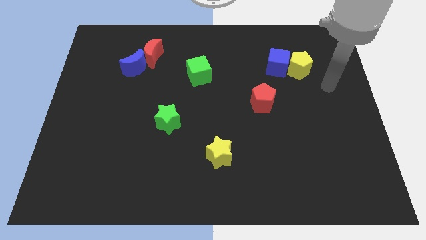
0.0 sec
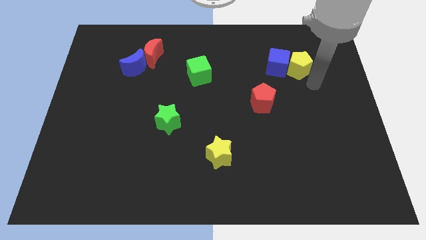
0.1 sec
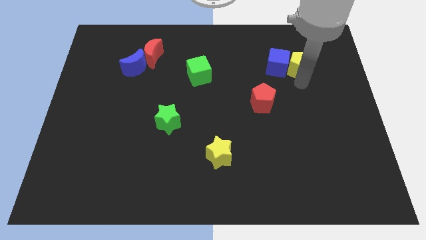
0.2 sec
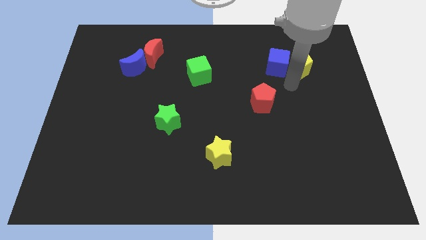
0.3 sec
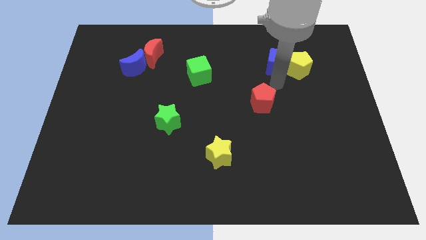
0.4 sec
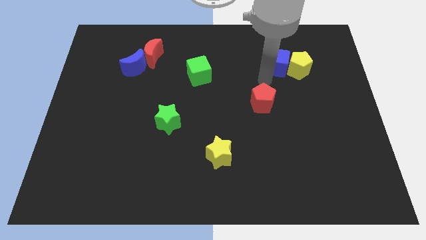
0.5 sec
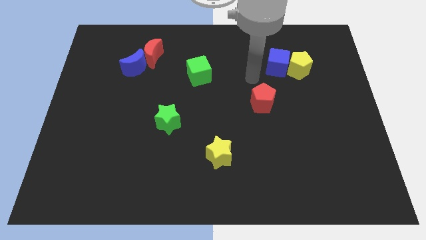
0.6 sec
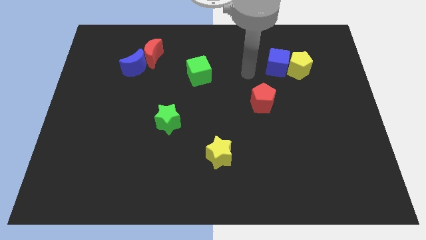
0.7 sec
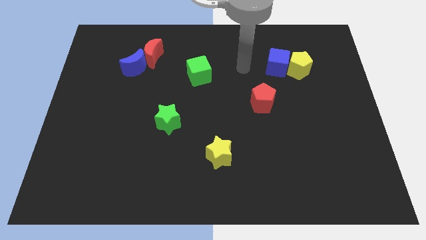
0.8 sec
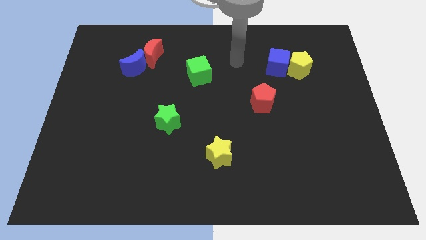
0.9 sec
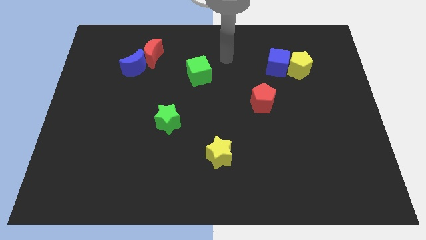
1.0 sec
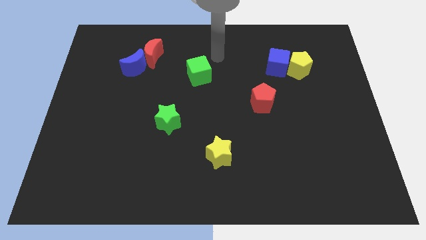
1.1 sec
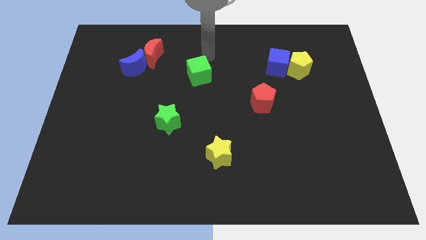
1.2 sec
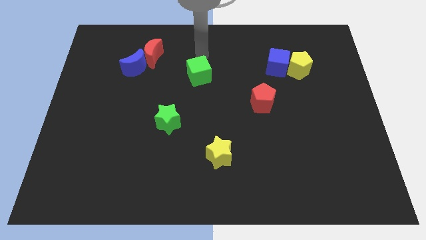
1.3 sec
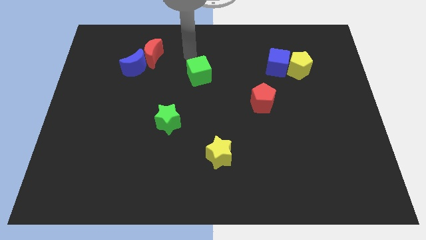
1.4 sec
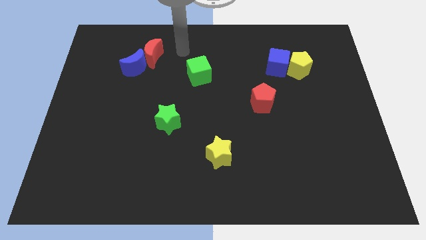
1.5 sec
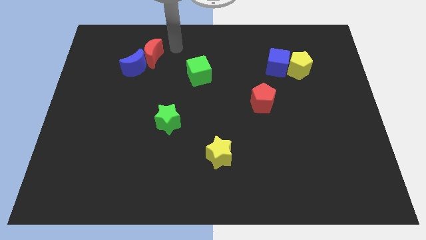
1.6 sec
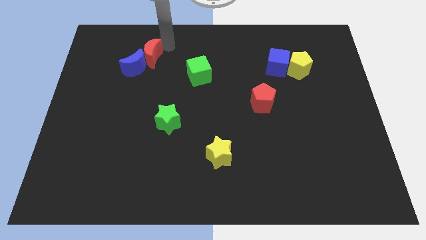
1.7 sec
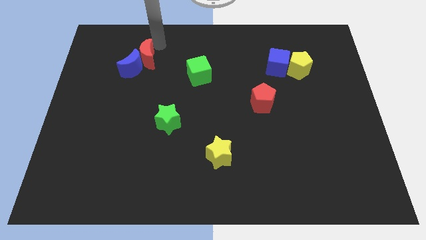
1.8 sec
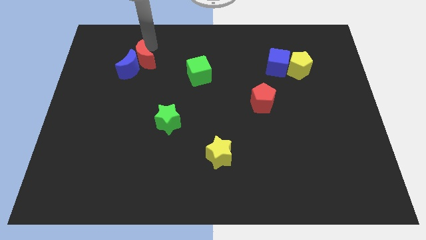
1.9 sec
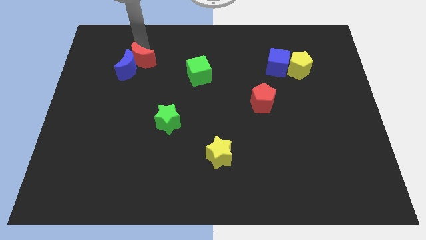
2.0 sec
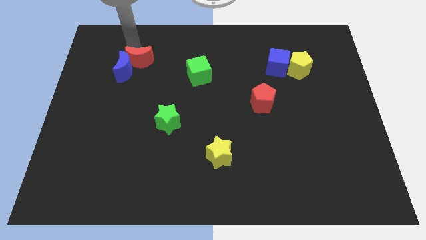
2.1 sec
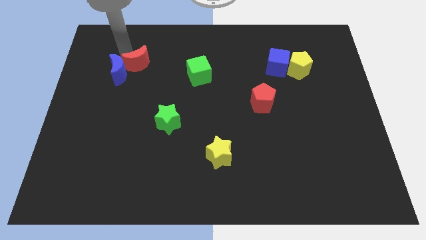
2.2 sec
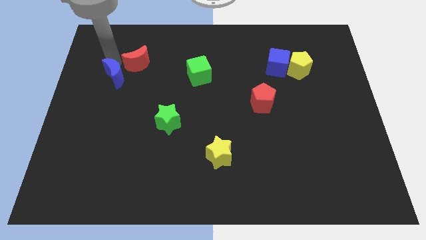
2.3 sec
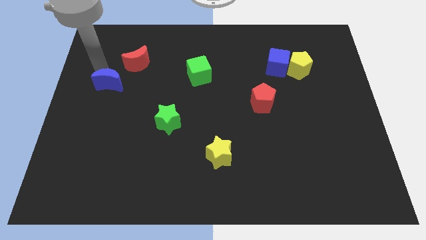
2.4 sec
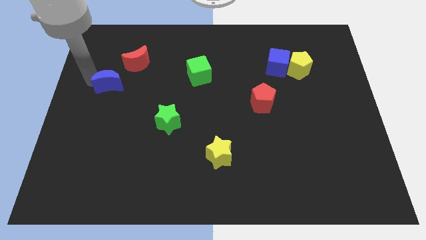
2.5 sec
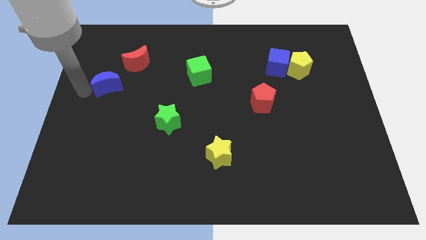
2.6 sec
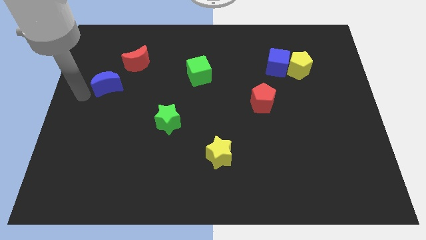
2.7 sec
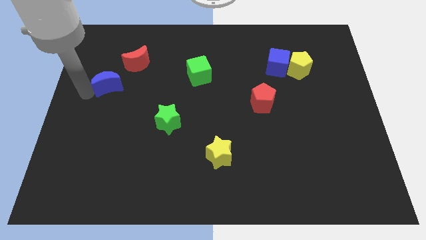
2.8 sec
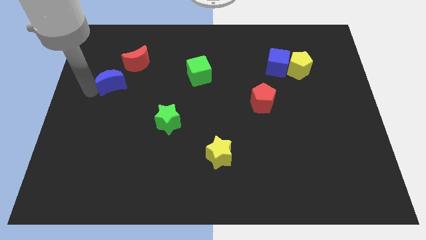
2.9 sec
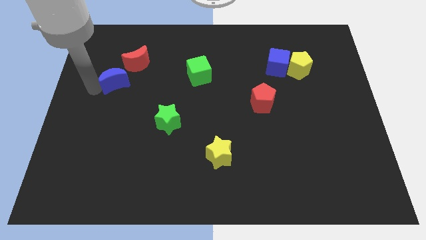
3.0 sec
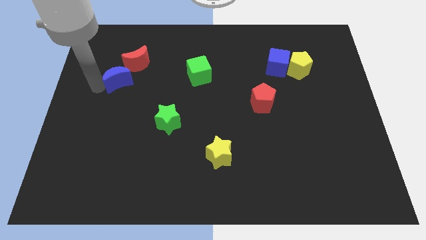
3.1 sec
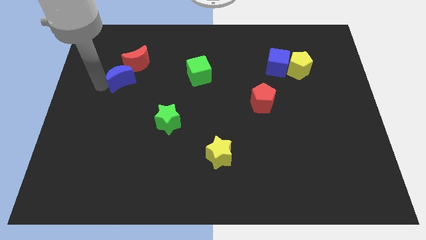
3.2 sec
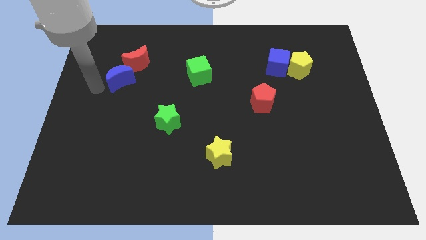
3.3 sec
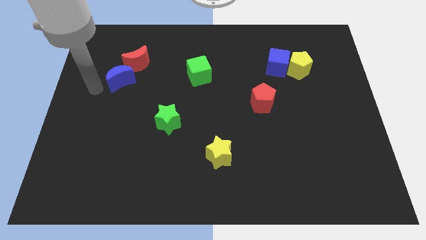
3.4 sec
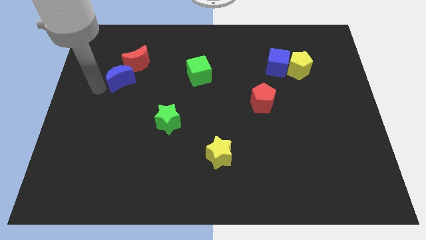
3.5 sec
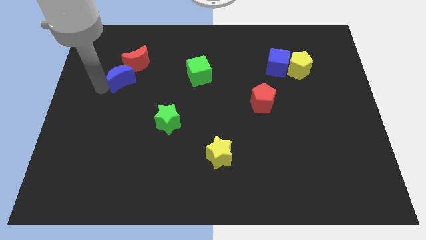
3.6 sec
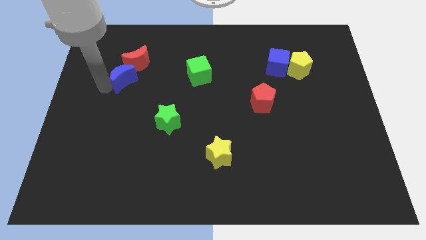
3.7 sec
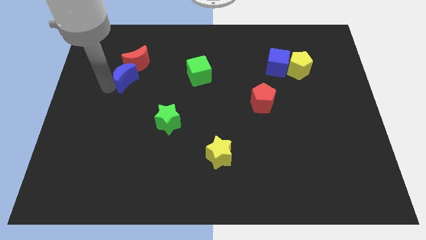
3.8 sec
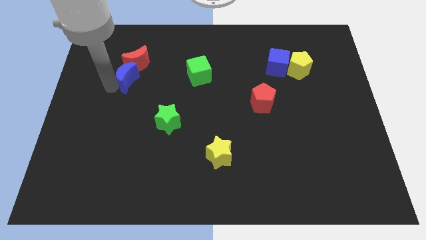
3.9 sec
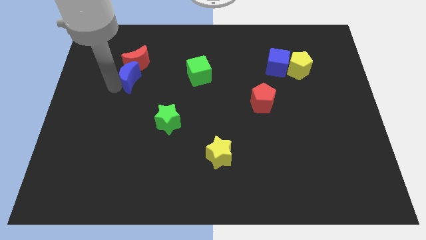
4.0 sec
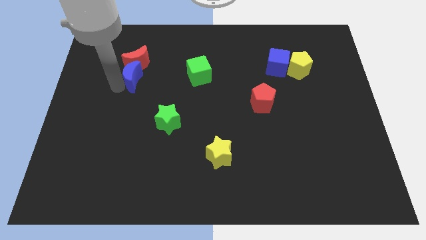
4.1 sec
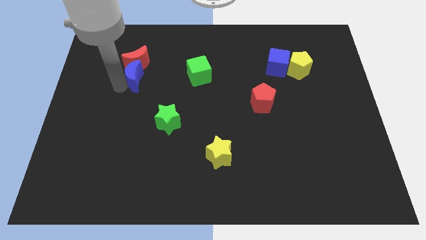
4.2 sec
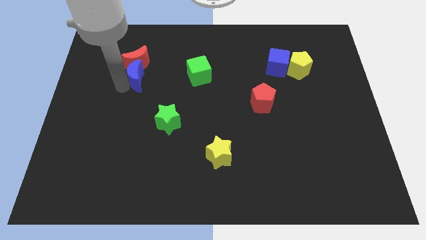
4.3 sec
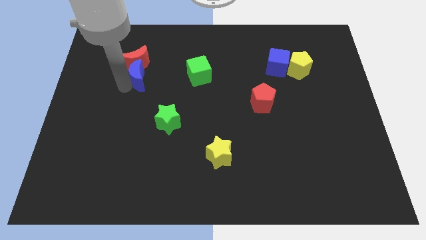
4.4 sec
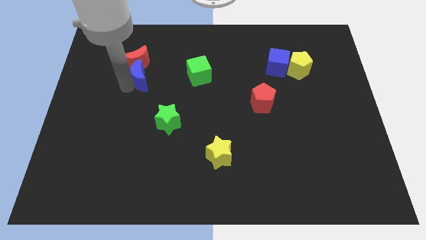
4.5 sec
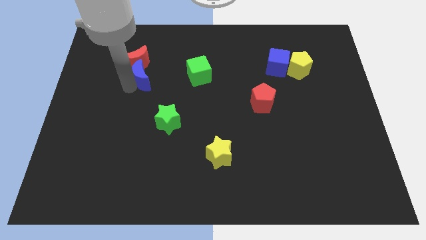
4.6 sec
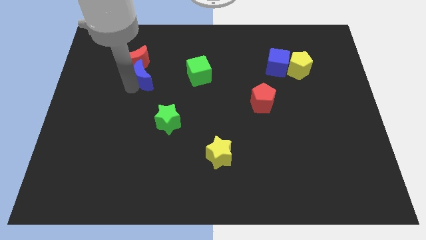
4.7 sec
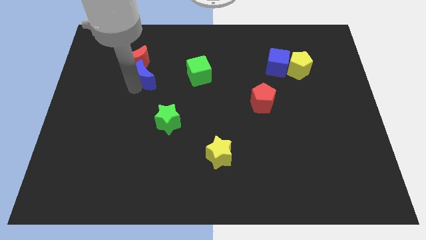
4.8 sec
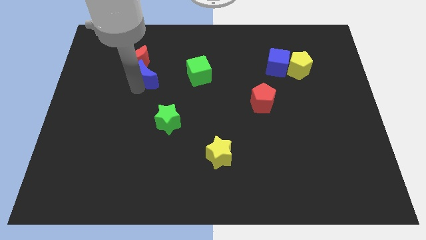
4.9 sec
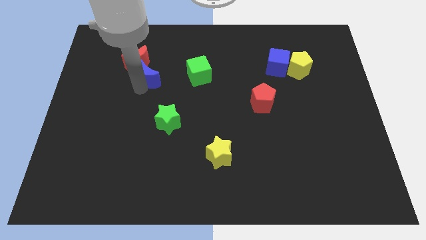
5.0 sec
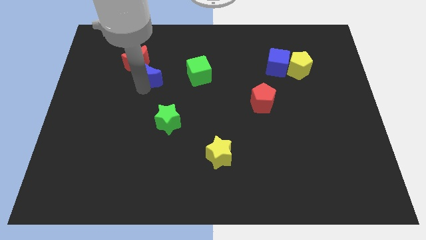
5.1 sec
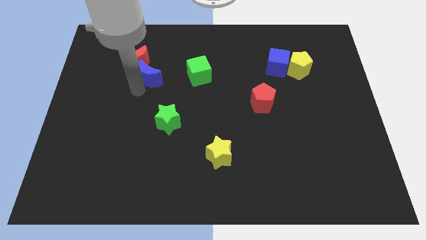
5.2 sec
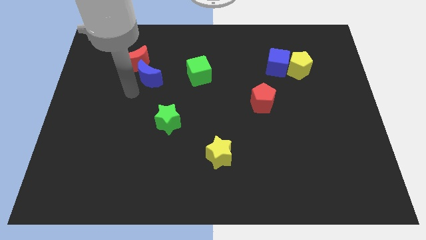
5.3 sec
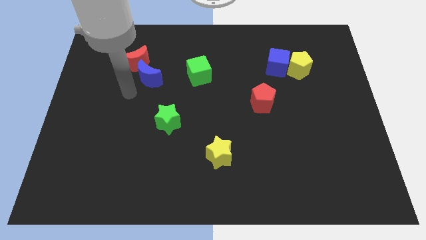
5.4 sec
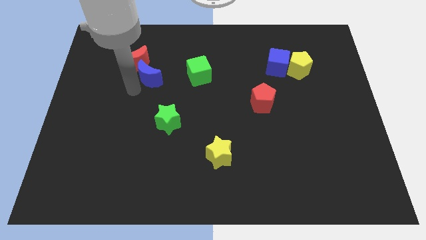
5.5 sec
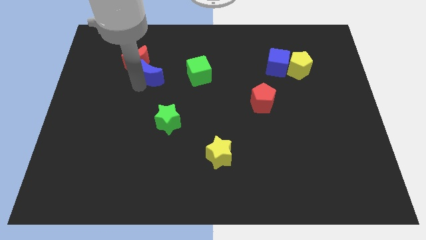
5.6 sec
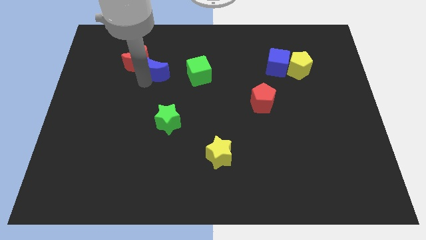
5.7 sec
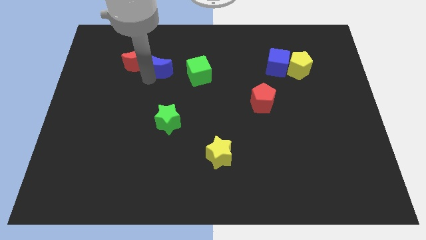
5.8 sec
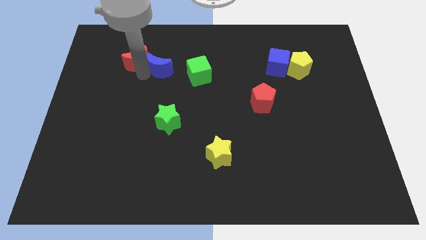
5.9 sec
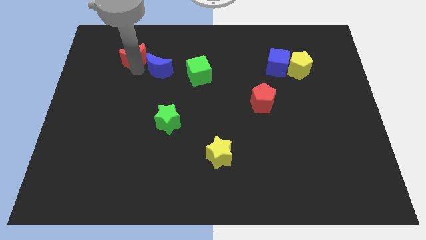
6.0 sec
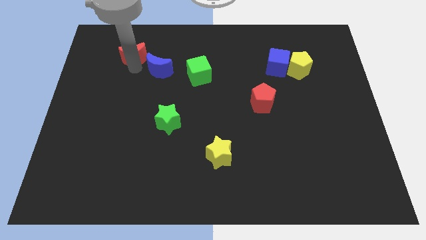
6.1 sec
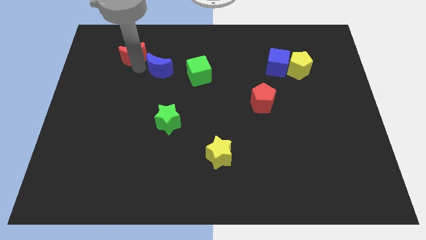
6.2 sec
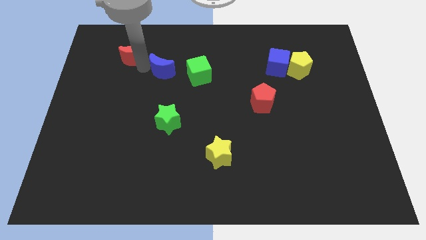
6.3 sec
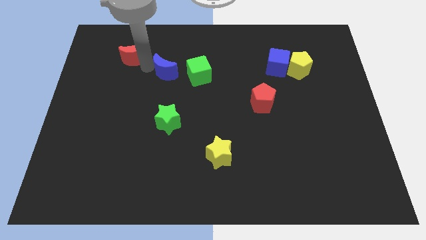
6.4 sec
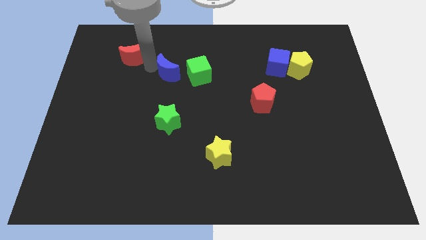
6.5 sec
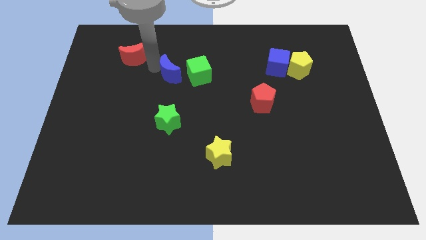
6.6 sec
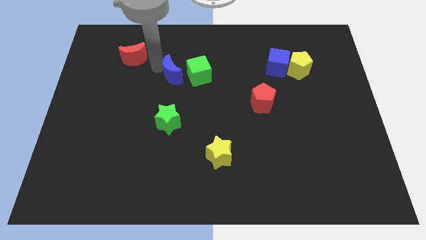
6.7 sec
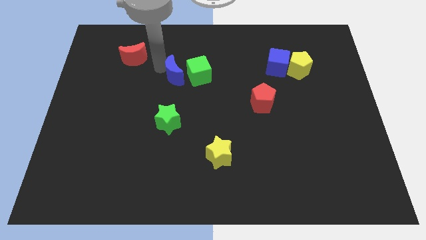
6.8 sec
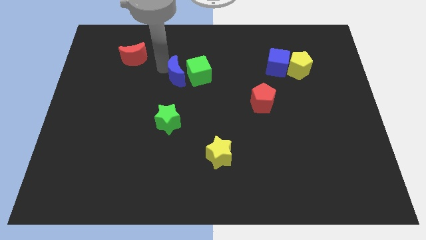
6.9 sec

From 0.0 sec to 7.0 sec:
slide the blue moon towards the green cube
